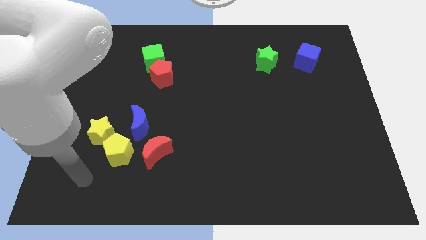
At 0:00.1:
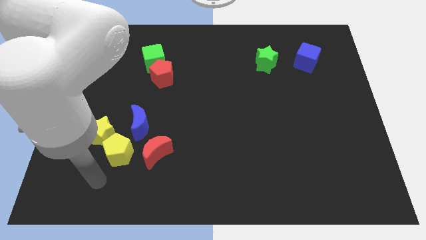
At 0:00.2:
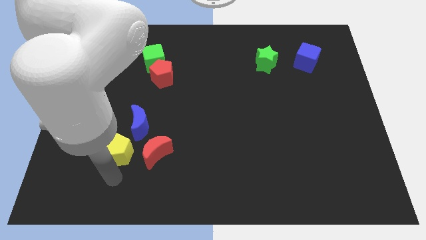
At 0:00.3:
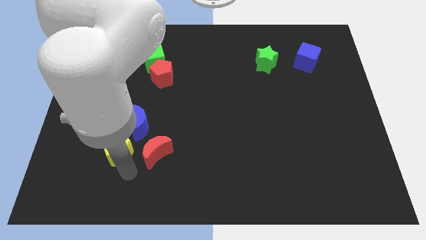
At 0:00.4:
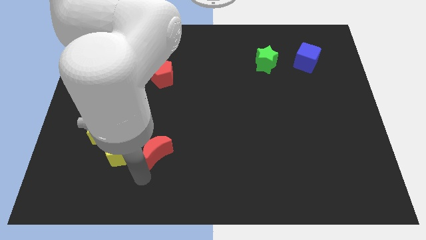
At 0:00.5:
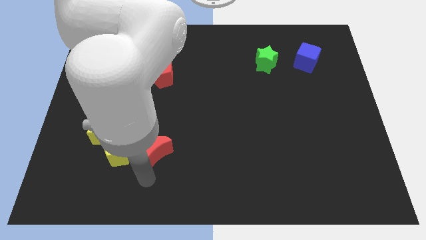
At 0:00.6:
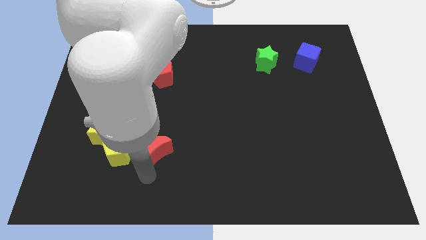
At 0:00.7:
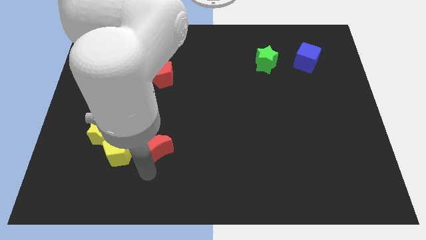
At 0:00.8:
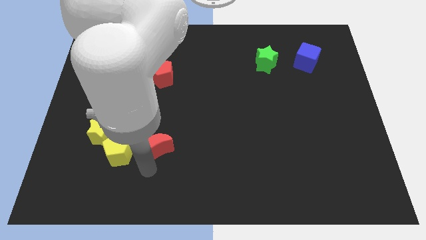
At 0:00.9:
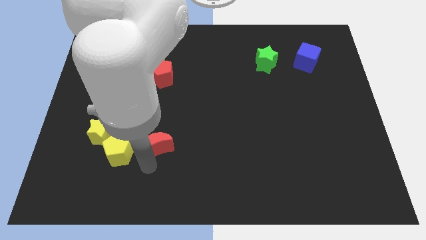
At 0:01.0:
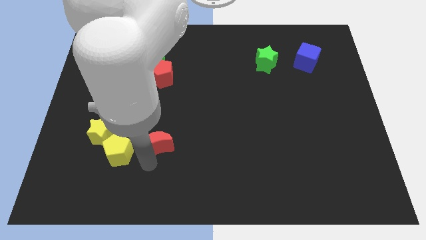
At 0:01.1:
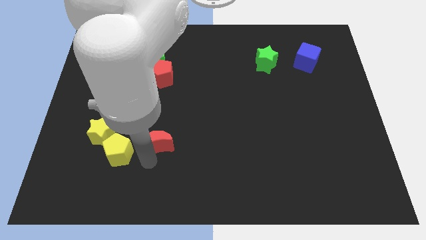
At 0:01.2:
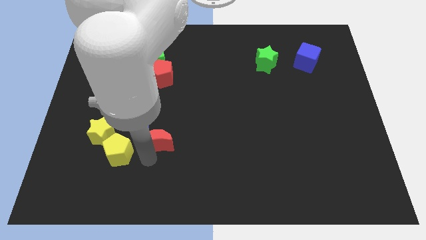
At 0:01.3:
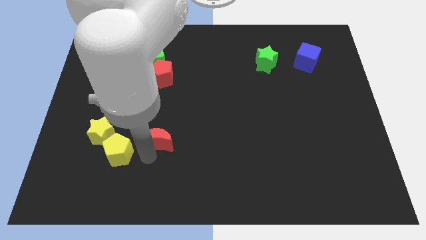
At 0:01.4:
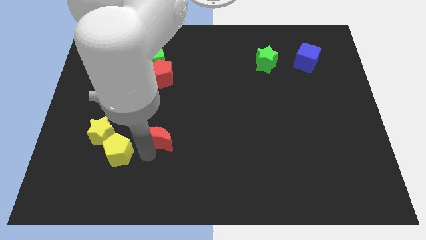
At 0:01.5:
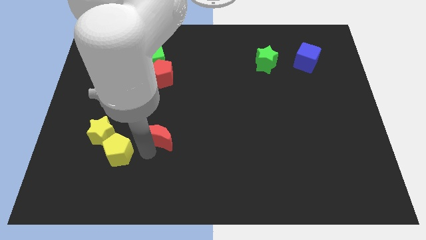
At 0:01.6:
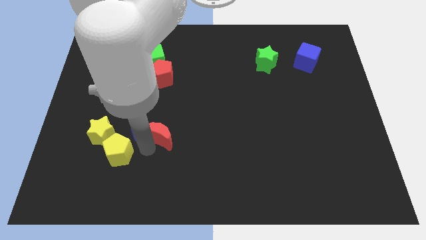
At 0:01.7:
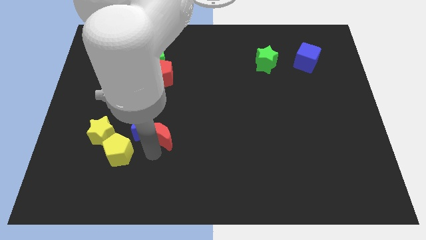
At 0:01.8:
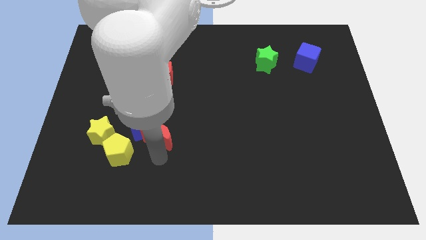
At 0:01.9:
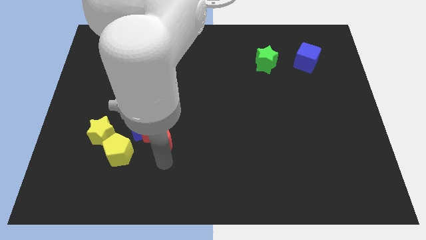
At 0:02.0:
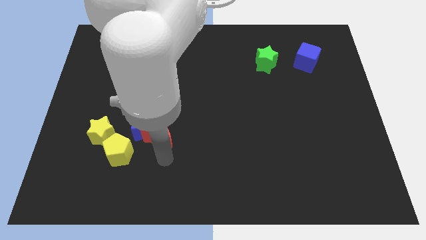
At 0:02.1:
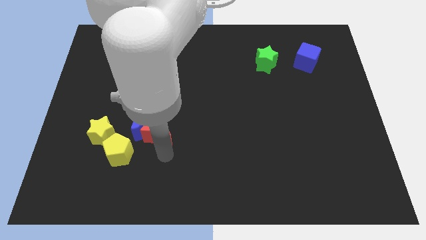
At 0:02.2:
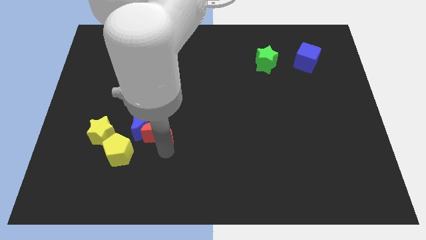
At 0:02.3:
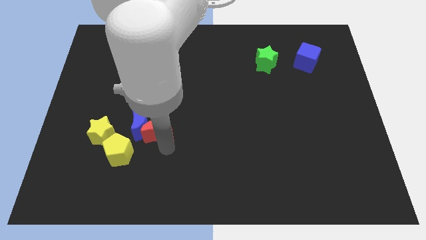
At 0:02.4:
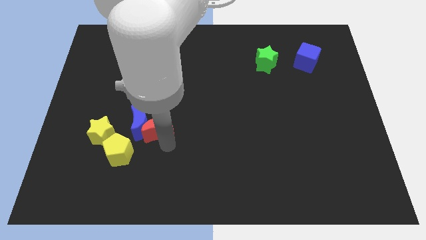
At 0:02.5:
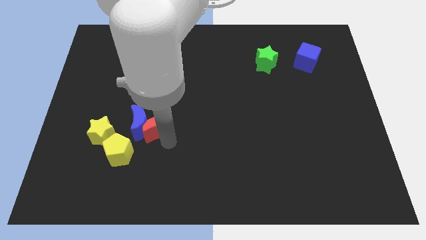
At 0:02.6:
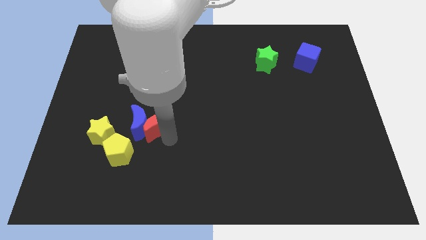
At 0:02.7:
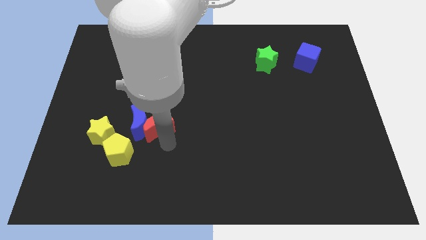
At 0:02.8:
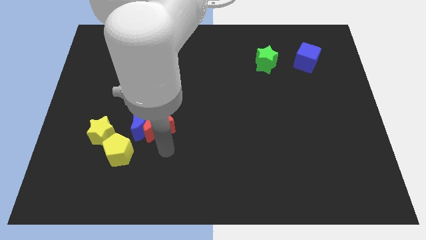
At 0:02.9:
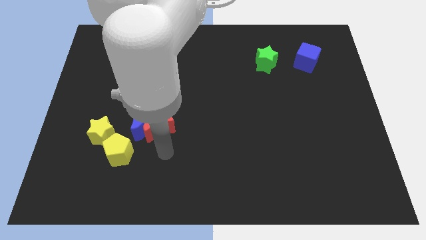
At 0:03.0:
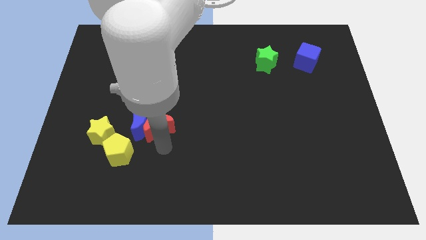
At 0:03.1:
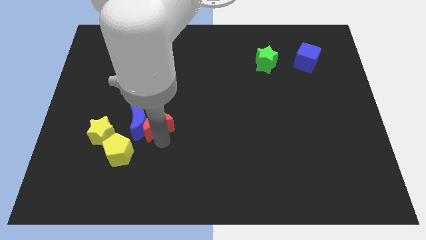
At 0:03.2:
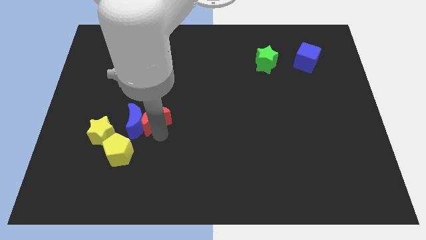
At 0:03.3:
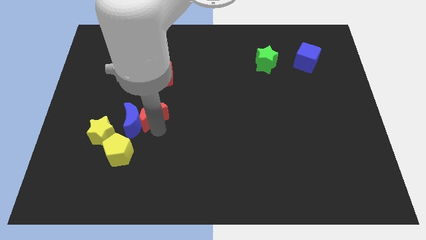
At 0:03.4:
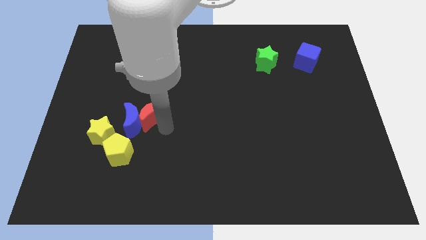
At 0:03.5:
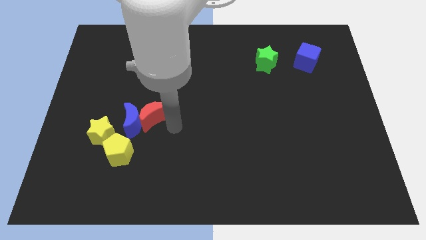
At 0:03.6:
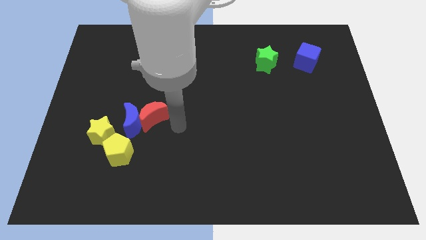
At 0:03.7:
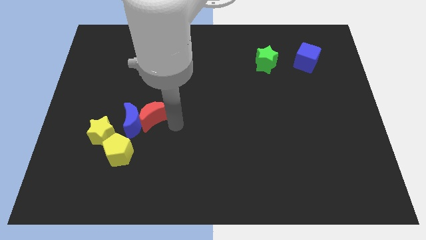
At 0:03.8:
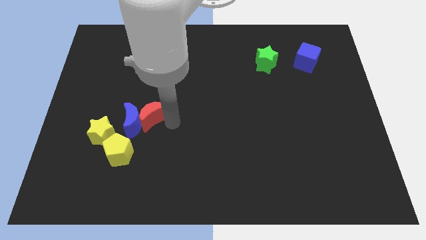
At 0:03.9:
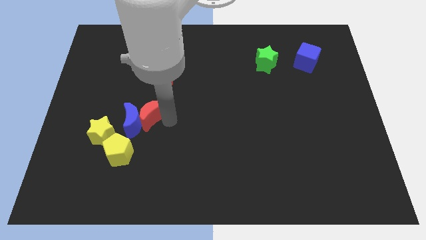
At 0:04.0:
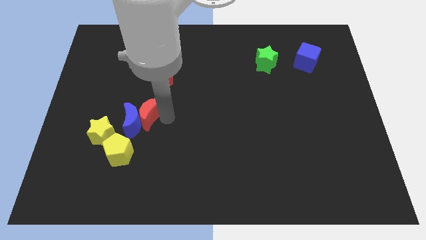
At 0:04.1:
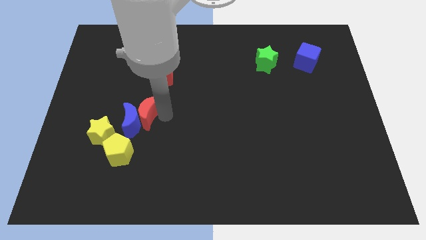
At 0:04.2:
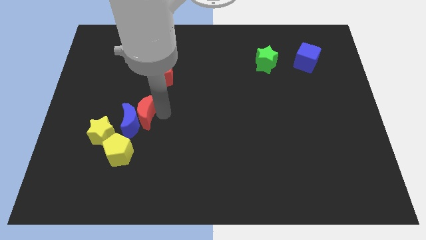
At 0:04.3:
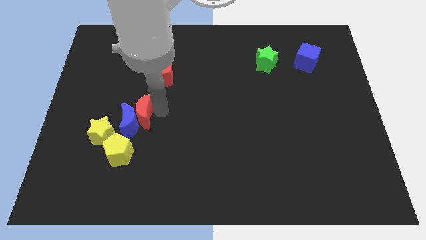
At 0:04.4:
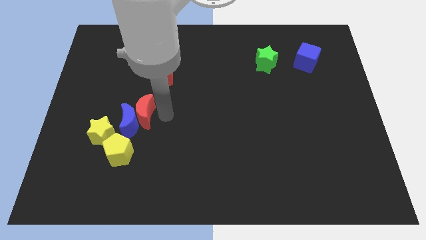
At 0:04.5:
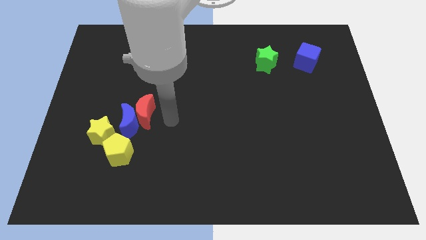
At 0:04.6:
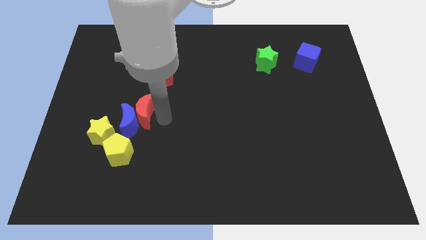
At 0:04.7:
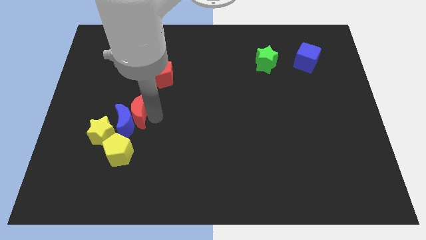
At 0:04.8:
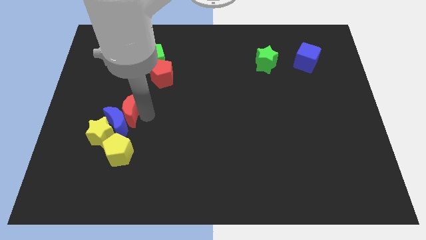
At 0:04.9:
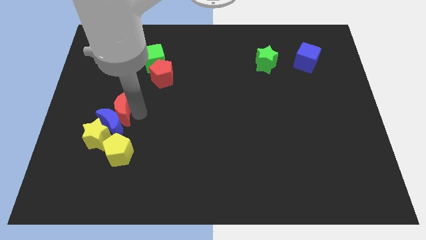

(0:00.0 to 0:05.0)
move the red moon diagonally up and to the left of the blue moon

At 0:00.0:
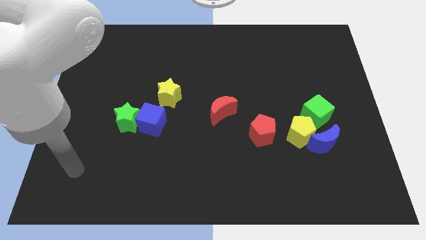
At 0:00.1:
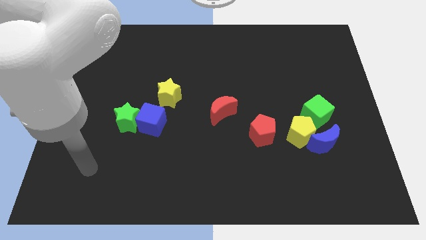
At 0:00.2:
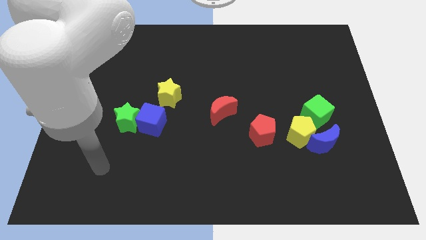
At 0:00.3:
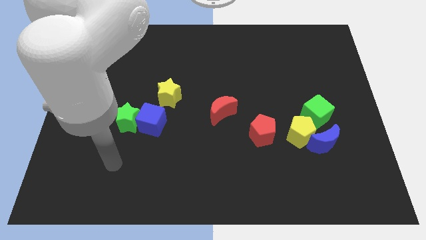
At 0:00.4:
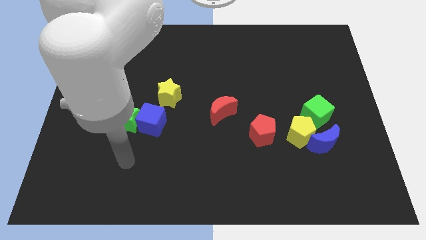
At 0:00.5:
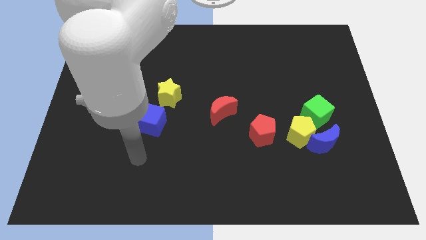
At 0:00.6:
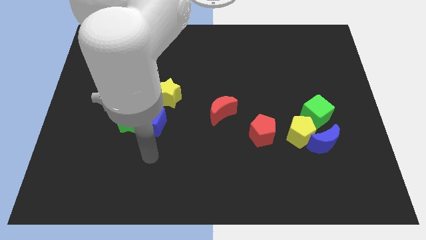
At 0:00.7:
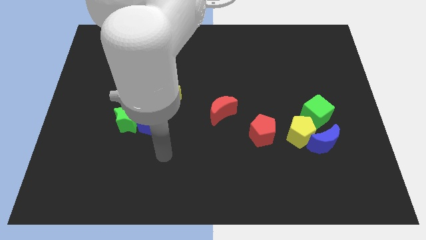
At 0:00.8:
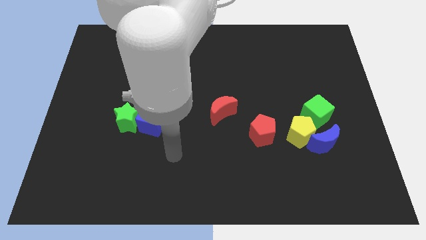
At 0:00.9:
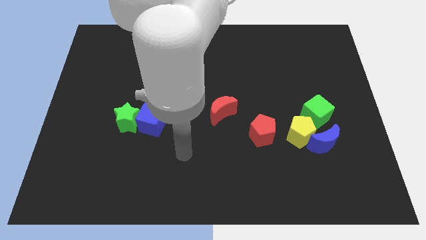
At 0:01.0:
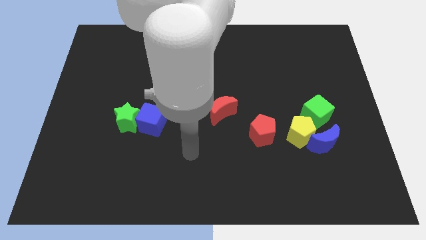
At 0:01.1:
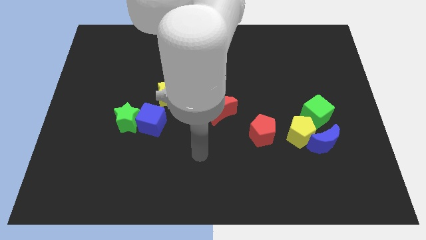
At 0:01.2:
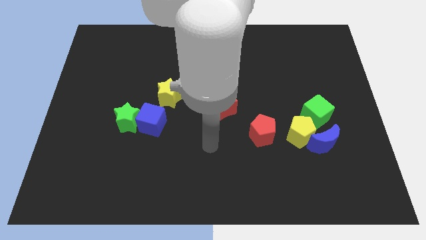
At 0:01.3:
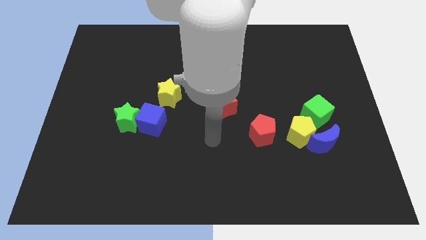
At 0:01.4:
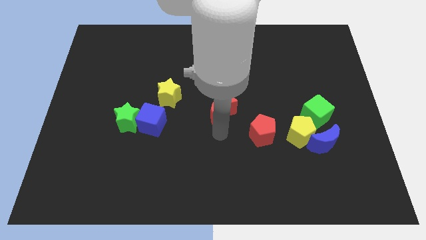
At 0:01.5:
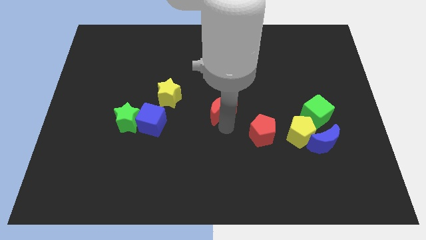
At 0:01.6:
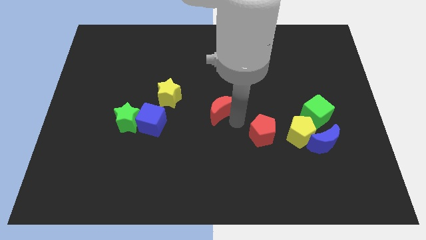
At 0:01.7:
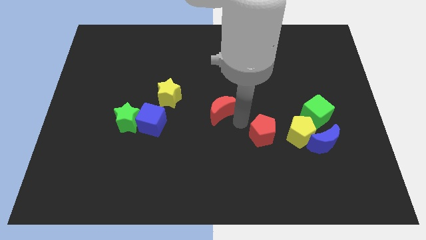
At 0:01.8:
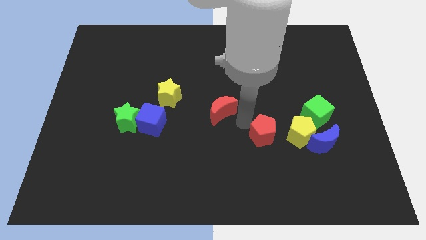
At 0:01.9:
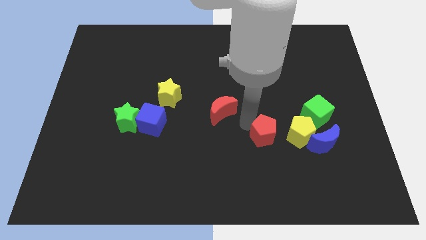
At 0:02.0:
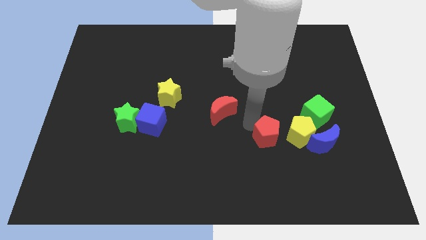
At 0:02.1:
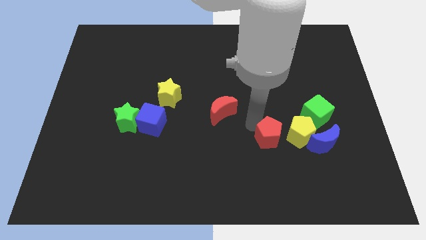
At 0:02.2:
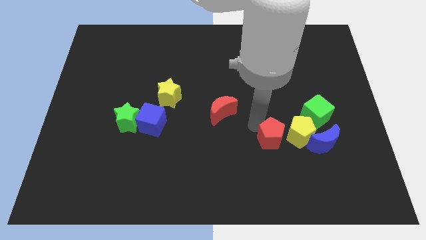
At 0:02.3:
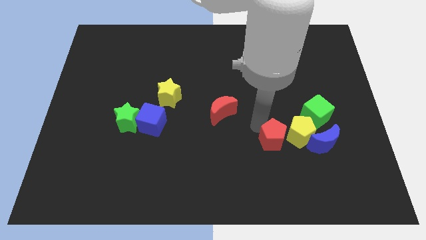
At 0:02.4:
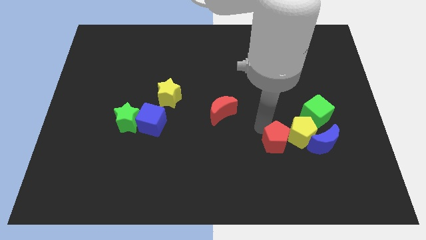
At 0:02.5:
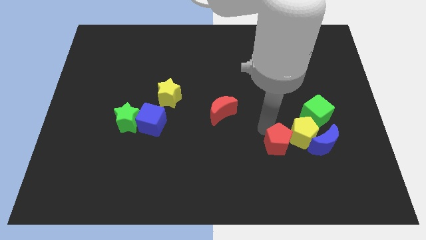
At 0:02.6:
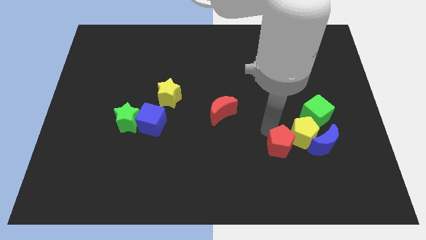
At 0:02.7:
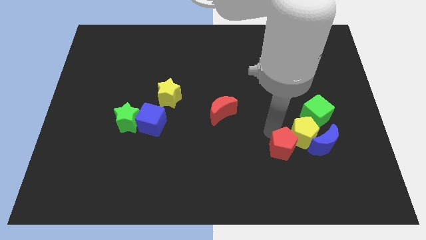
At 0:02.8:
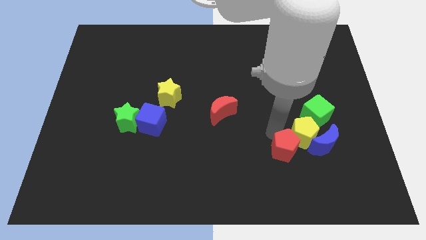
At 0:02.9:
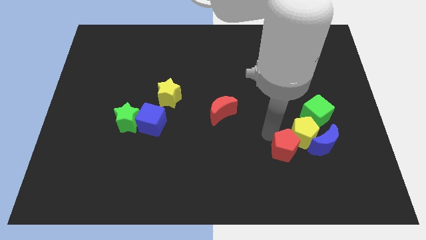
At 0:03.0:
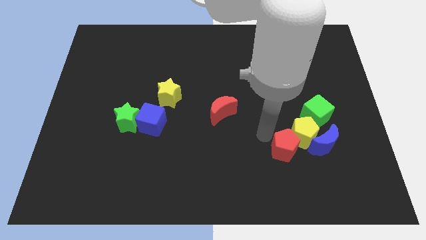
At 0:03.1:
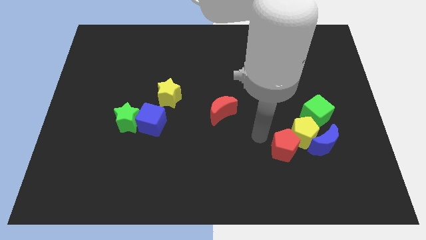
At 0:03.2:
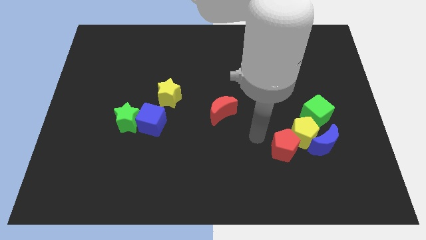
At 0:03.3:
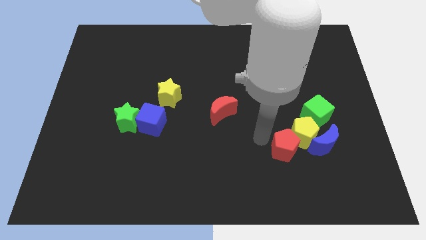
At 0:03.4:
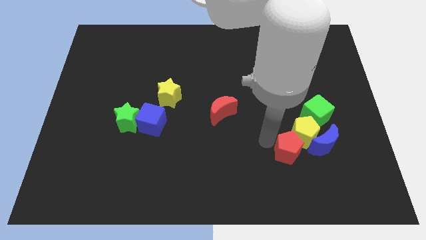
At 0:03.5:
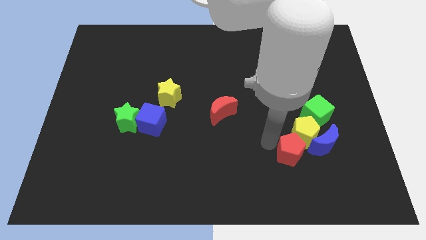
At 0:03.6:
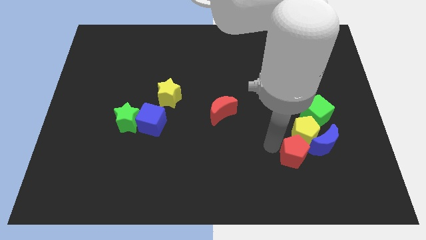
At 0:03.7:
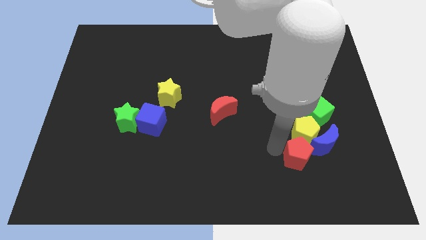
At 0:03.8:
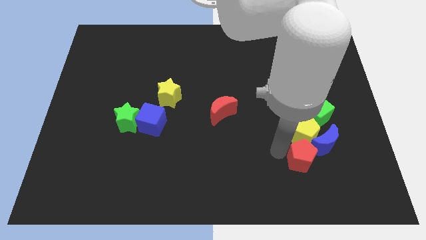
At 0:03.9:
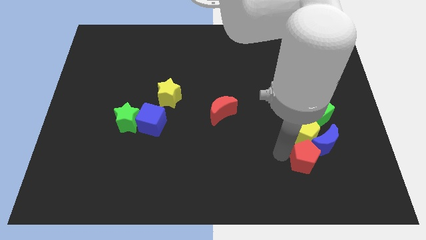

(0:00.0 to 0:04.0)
push the red pentagon to the bottom right side of the yellow pentagon
